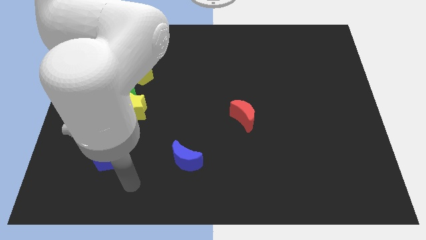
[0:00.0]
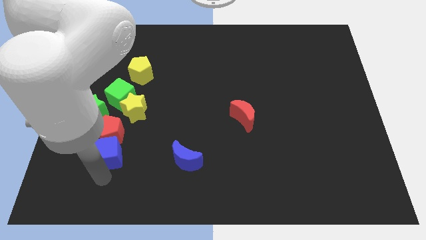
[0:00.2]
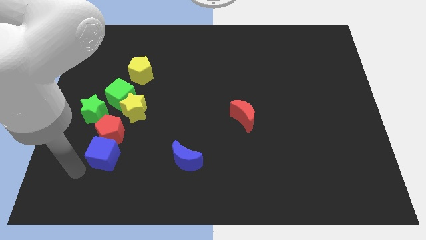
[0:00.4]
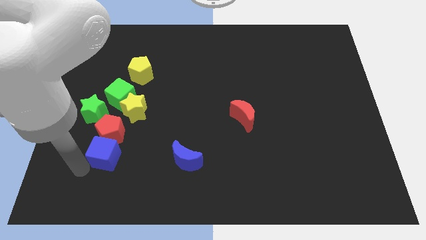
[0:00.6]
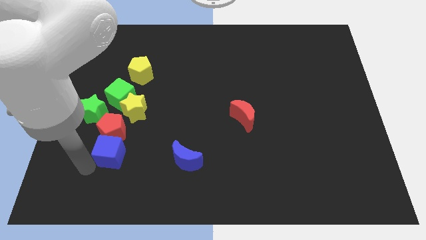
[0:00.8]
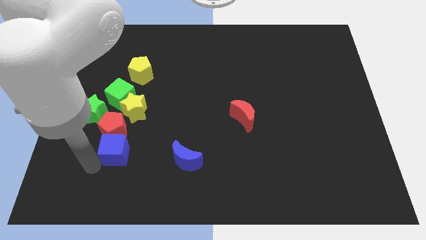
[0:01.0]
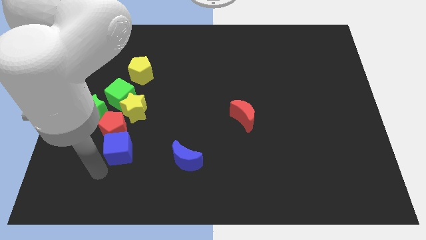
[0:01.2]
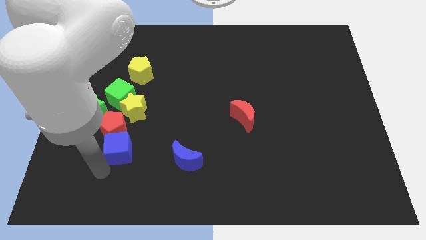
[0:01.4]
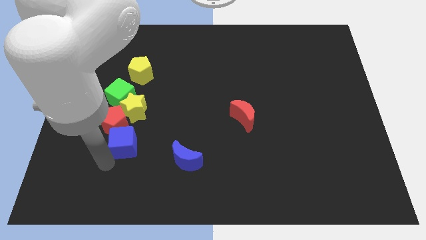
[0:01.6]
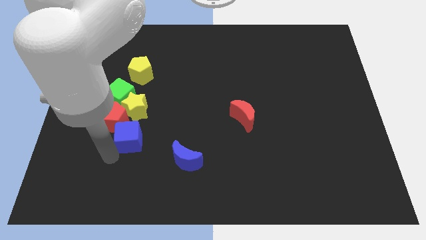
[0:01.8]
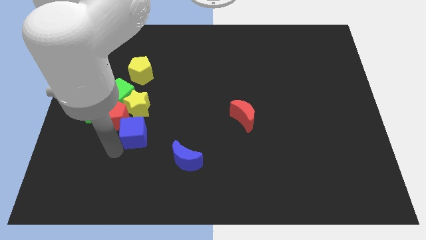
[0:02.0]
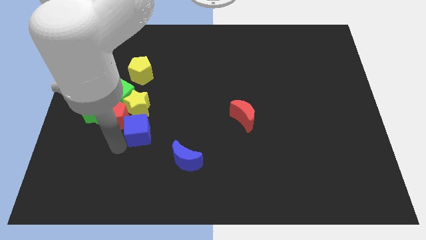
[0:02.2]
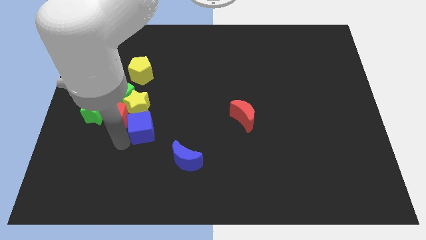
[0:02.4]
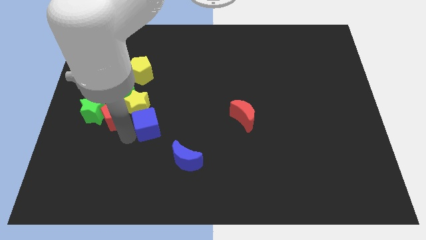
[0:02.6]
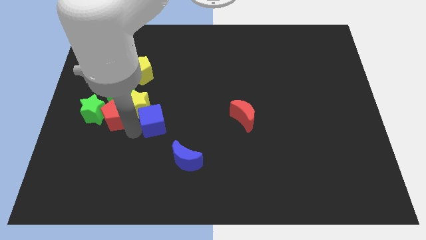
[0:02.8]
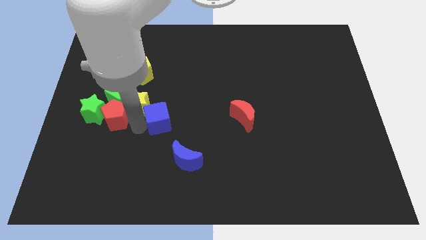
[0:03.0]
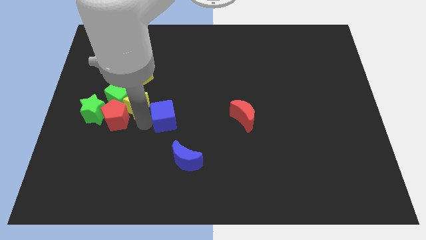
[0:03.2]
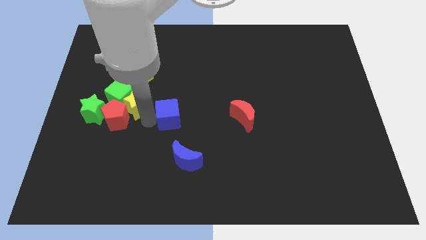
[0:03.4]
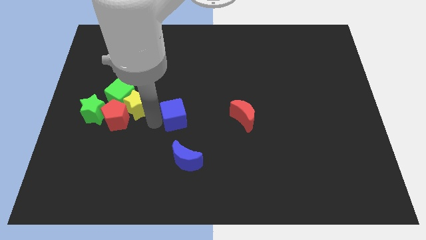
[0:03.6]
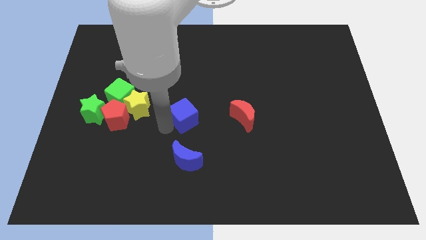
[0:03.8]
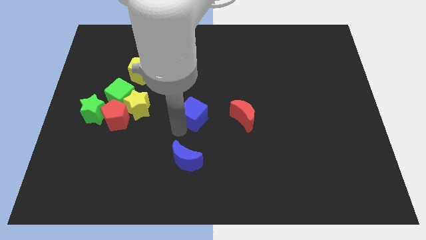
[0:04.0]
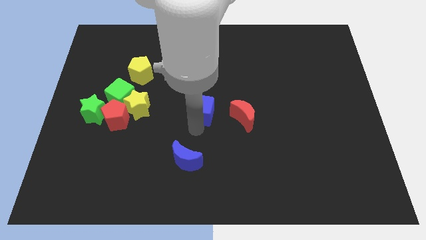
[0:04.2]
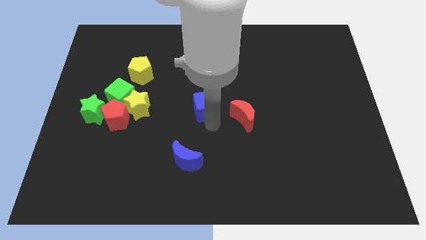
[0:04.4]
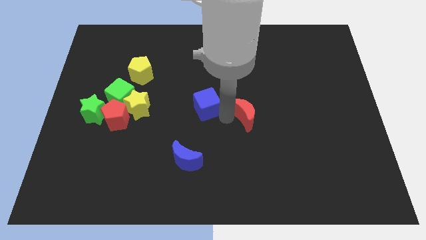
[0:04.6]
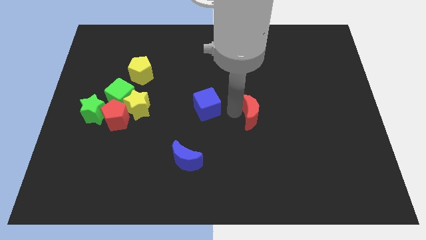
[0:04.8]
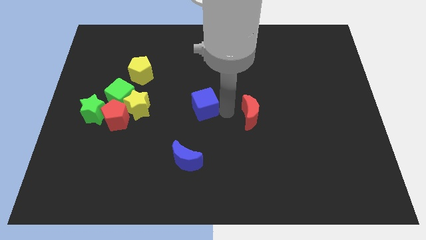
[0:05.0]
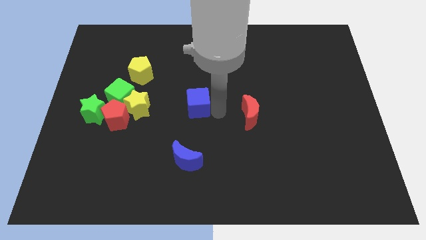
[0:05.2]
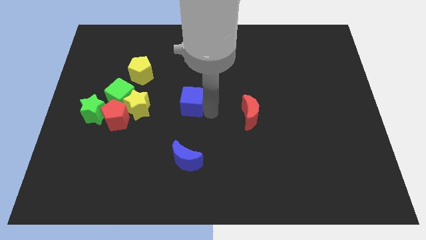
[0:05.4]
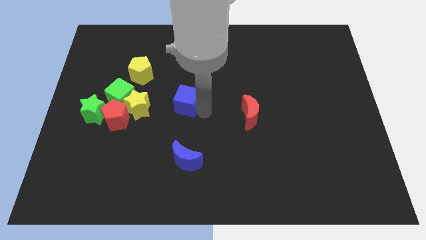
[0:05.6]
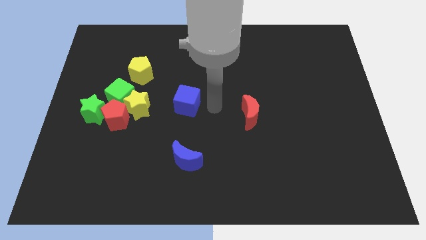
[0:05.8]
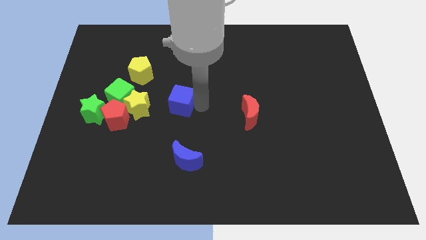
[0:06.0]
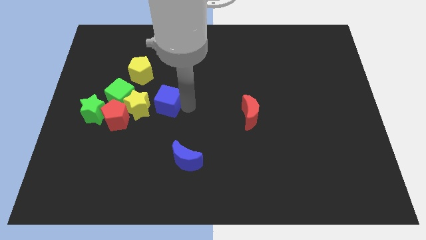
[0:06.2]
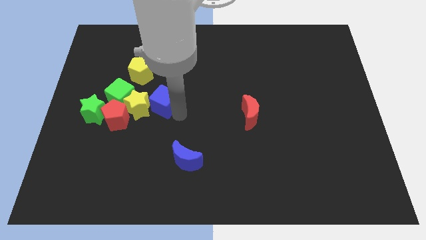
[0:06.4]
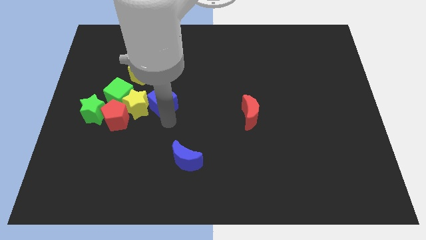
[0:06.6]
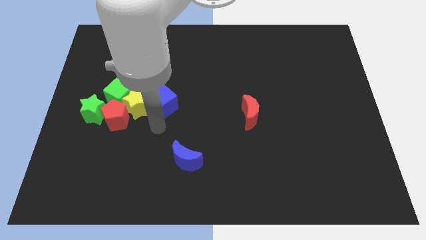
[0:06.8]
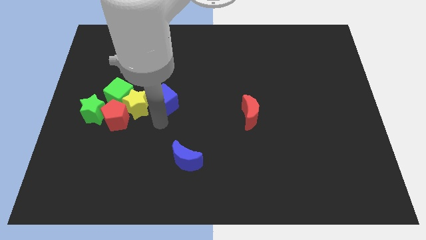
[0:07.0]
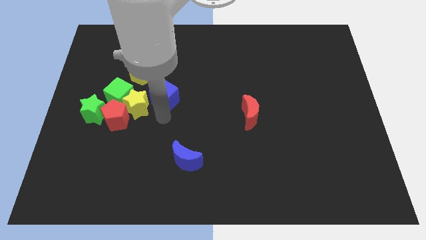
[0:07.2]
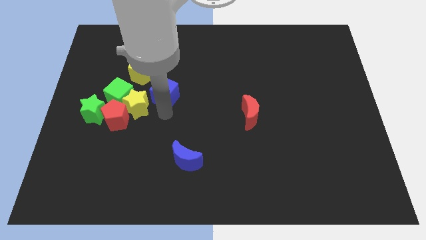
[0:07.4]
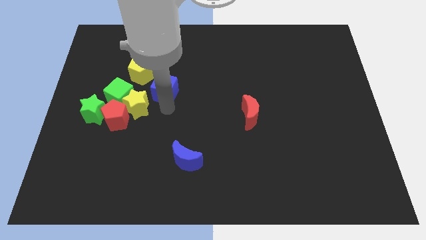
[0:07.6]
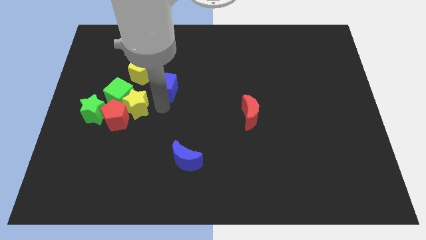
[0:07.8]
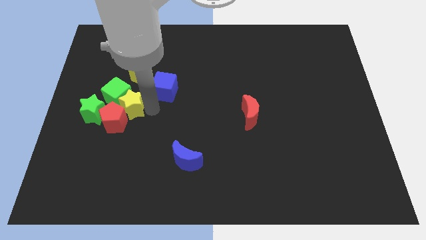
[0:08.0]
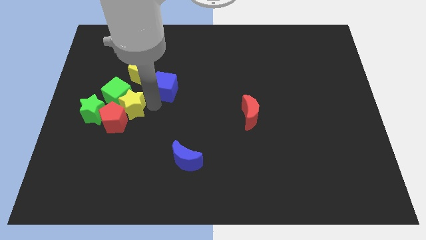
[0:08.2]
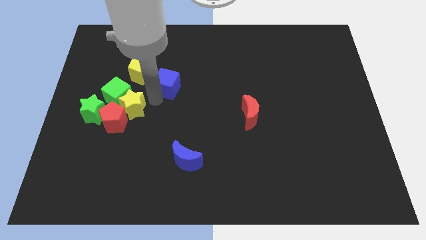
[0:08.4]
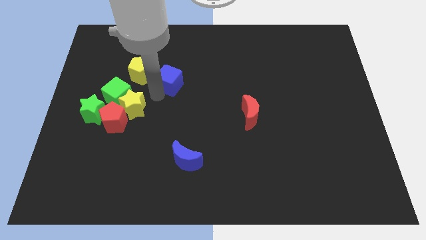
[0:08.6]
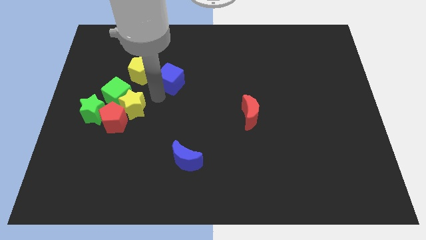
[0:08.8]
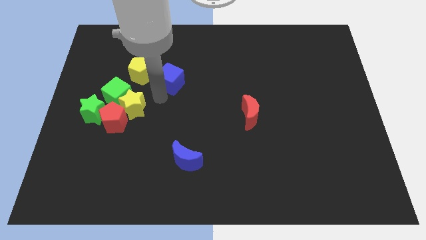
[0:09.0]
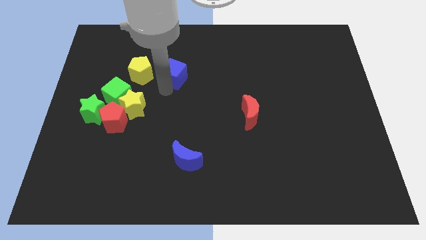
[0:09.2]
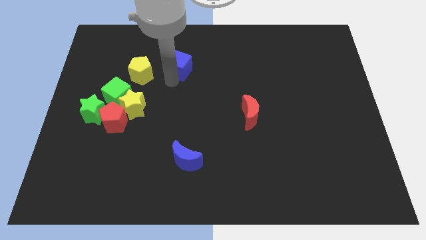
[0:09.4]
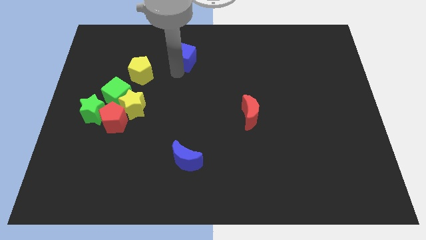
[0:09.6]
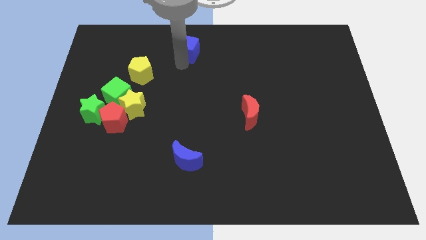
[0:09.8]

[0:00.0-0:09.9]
push the blue cube to the top

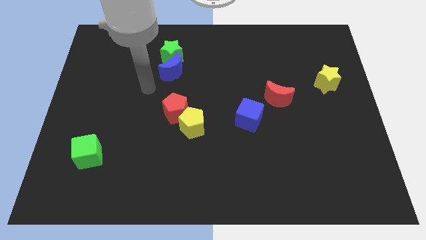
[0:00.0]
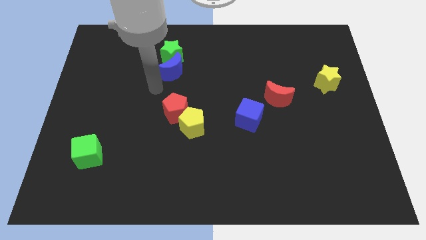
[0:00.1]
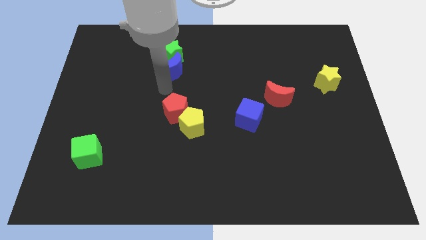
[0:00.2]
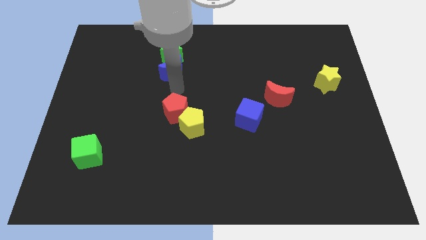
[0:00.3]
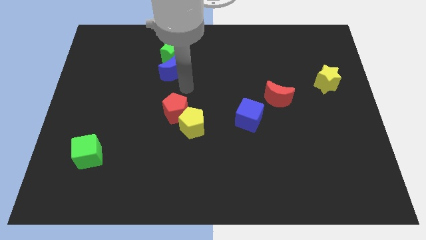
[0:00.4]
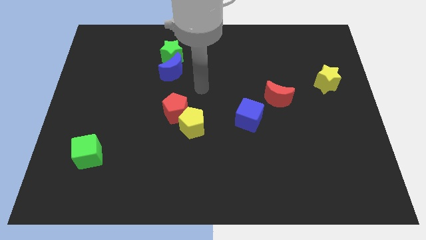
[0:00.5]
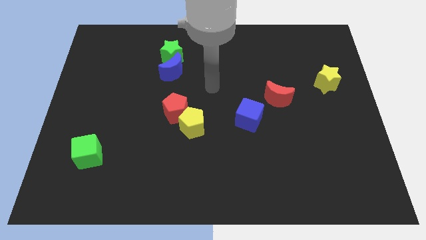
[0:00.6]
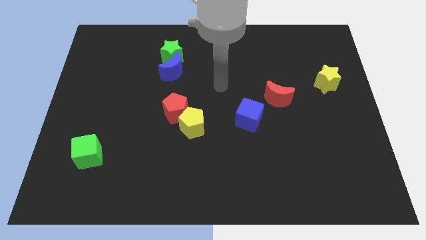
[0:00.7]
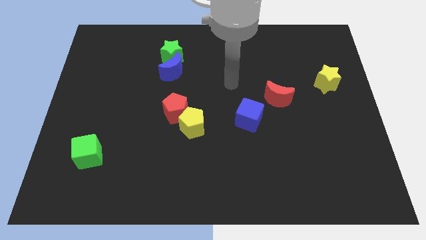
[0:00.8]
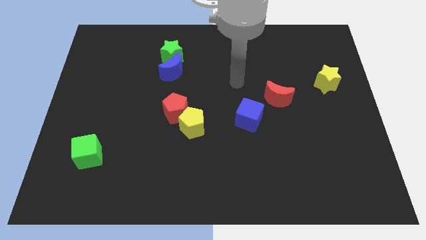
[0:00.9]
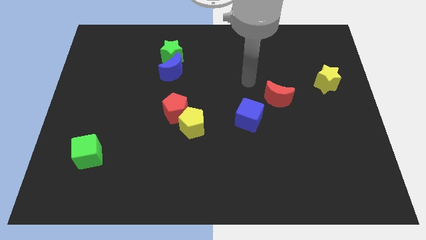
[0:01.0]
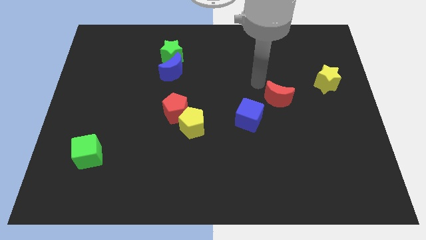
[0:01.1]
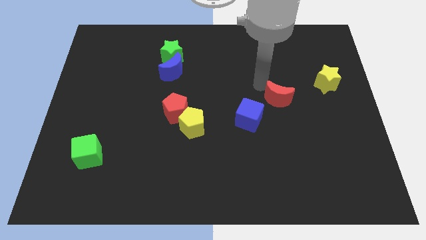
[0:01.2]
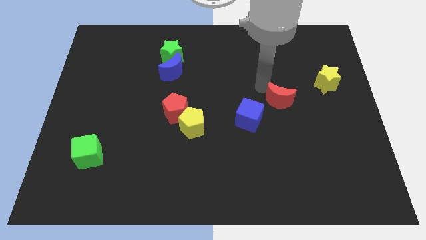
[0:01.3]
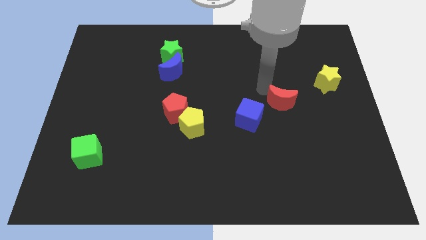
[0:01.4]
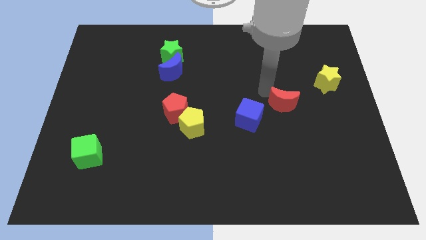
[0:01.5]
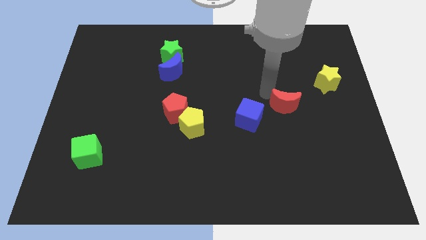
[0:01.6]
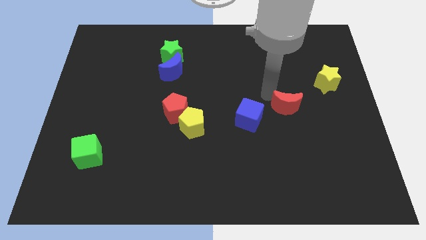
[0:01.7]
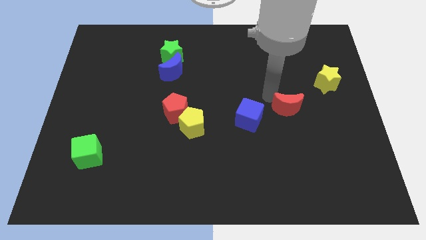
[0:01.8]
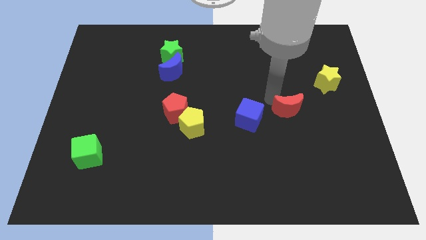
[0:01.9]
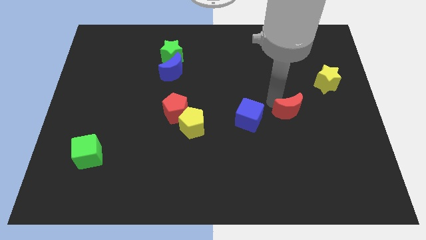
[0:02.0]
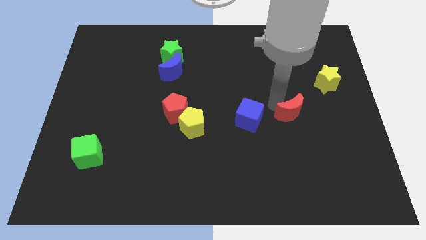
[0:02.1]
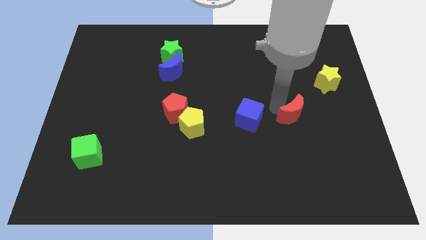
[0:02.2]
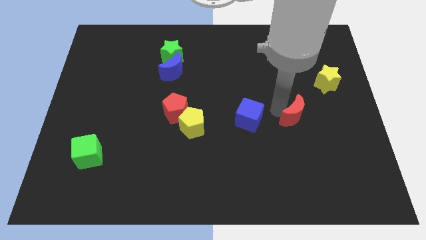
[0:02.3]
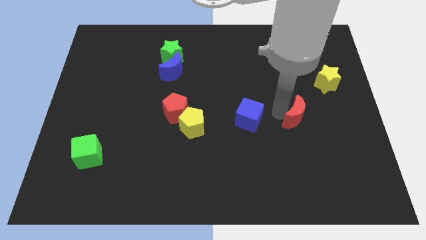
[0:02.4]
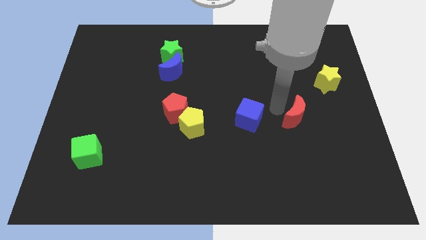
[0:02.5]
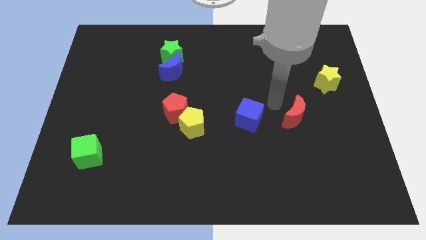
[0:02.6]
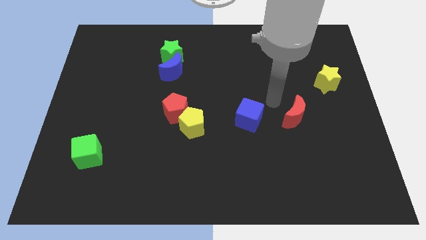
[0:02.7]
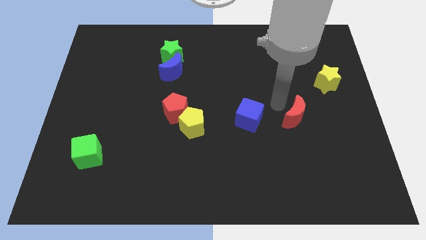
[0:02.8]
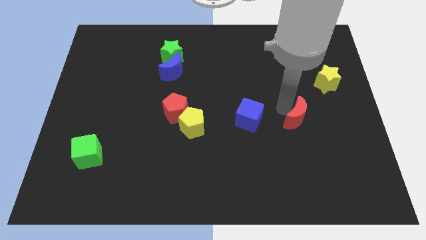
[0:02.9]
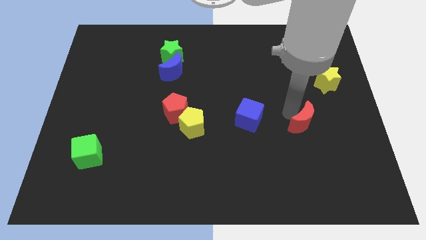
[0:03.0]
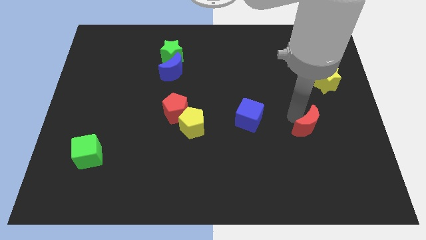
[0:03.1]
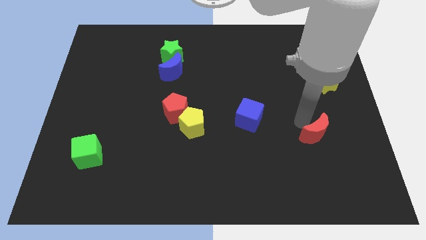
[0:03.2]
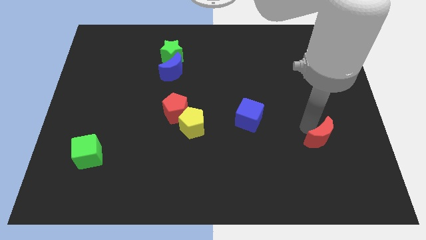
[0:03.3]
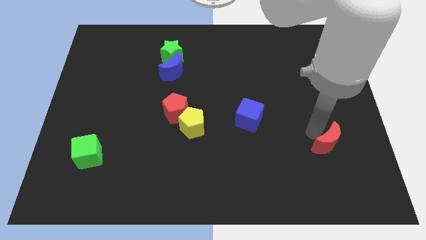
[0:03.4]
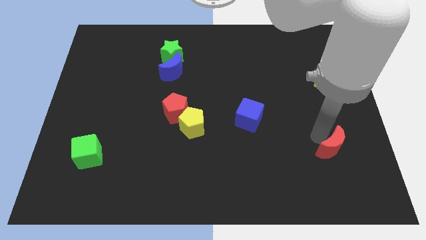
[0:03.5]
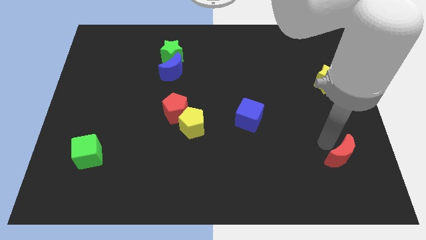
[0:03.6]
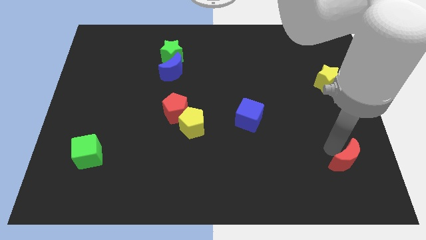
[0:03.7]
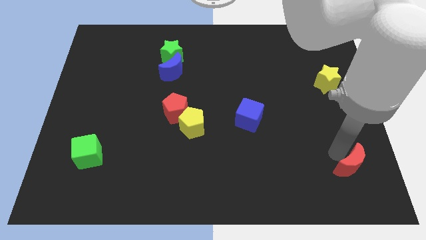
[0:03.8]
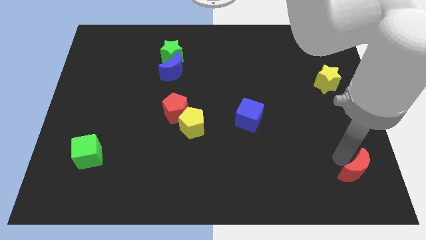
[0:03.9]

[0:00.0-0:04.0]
move the red moon to the bottom right of the board
